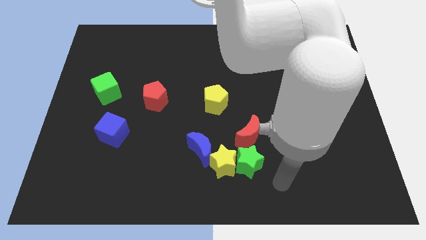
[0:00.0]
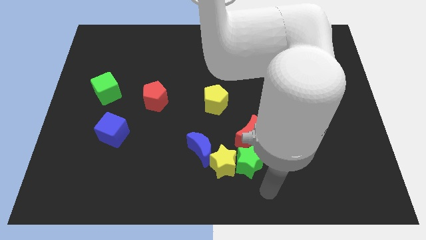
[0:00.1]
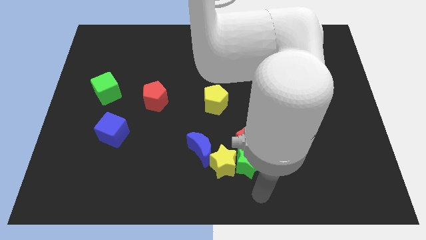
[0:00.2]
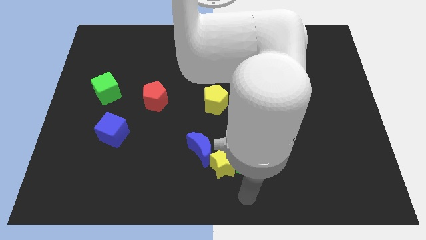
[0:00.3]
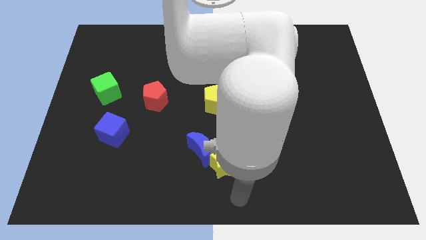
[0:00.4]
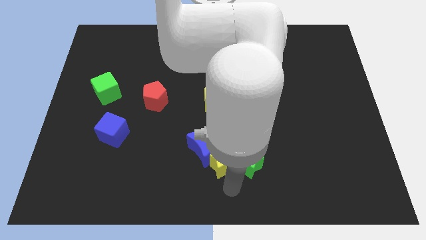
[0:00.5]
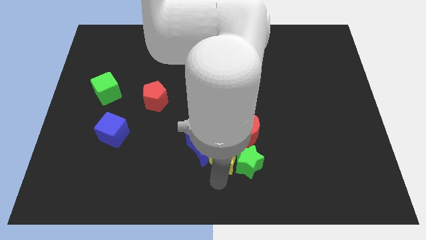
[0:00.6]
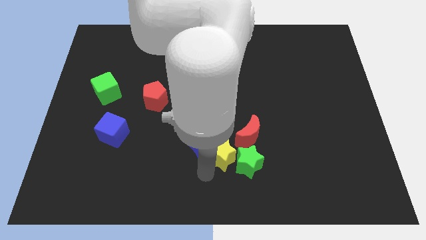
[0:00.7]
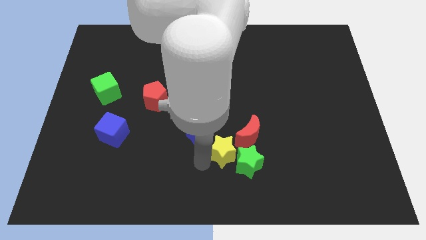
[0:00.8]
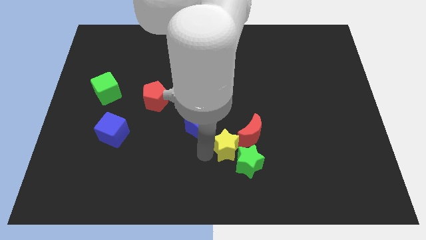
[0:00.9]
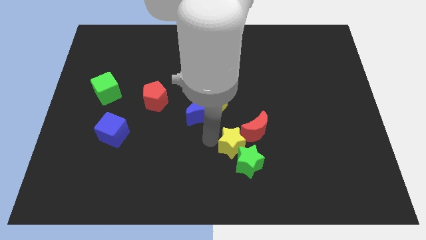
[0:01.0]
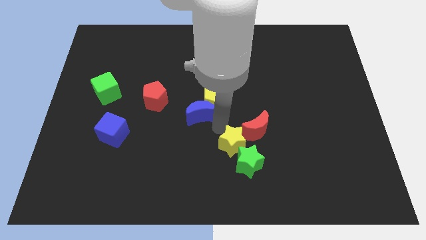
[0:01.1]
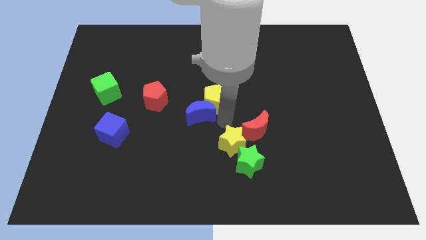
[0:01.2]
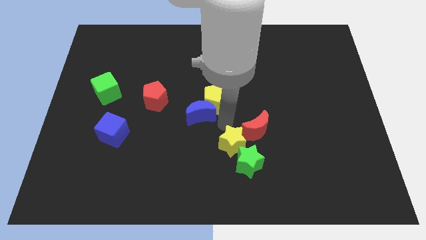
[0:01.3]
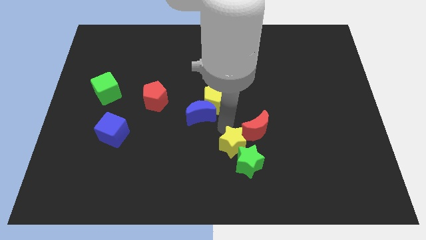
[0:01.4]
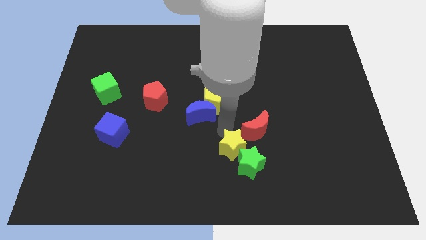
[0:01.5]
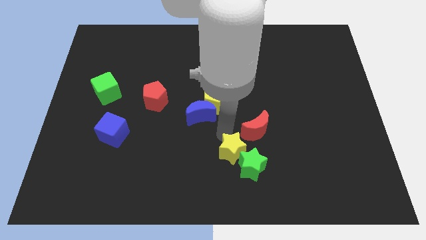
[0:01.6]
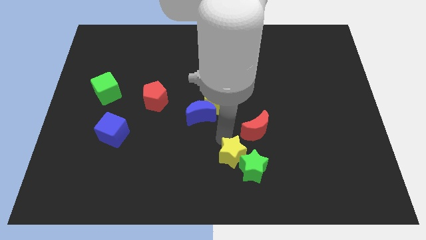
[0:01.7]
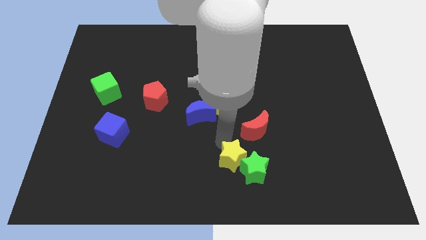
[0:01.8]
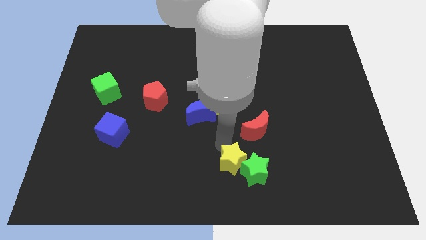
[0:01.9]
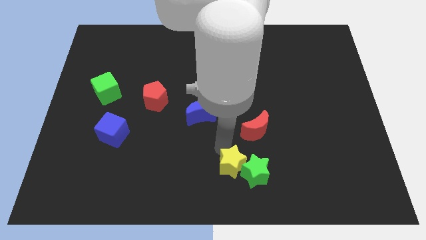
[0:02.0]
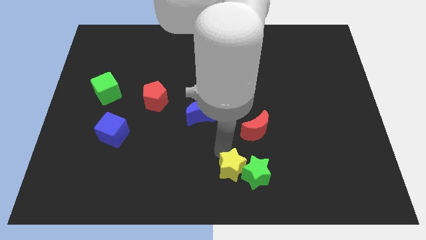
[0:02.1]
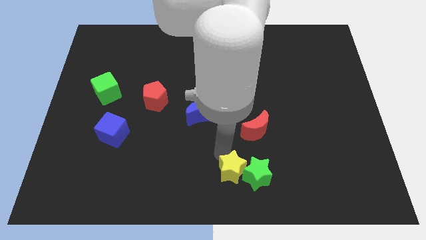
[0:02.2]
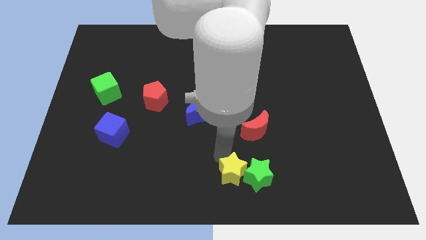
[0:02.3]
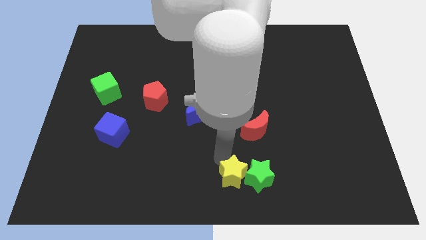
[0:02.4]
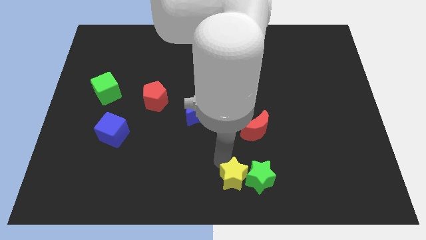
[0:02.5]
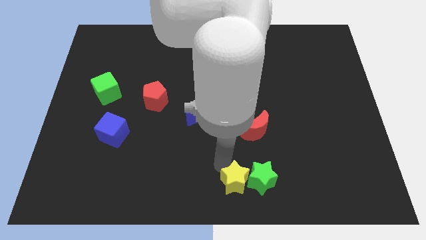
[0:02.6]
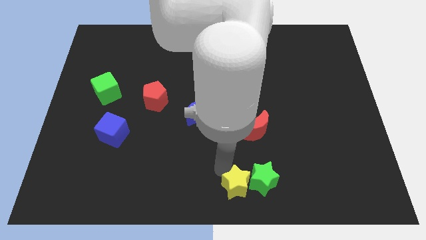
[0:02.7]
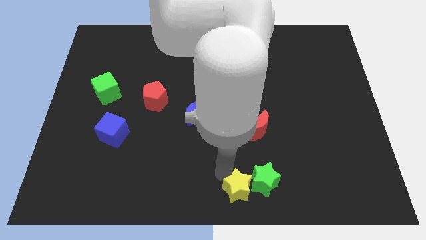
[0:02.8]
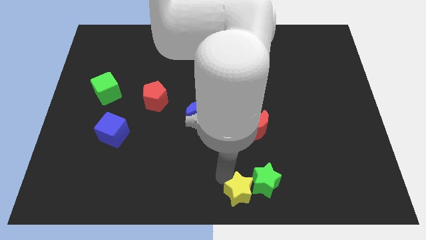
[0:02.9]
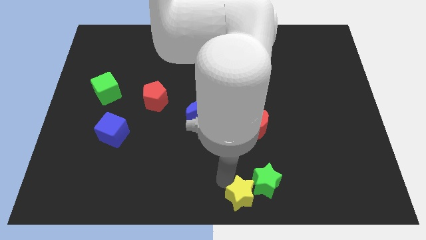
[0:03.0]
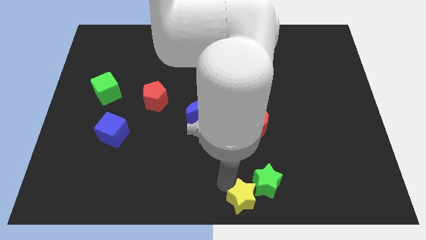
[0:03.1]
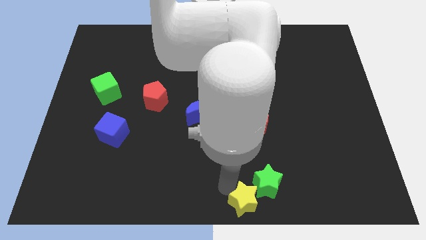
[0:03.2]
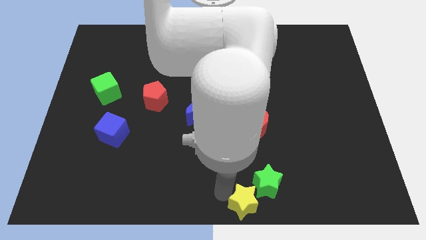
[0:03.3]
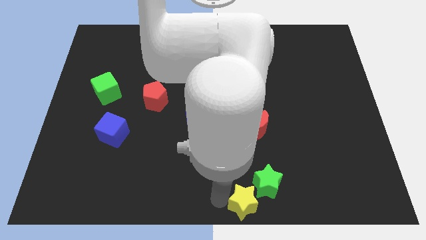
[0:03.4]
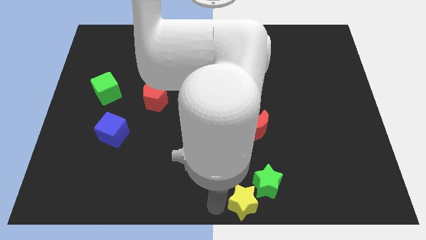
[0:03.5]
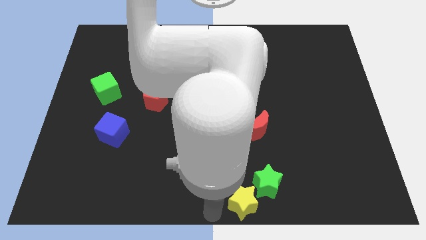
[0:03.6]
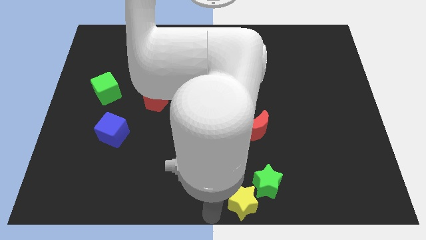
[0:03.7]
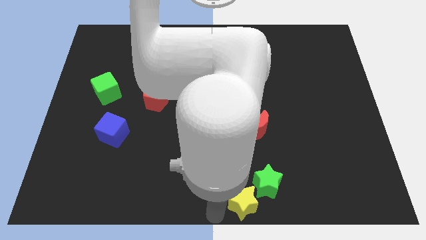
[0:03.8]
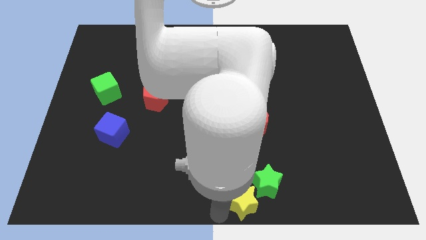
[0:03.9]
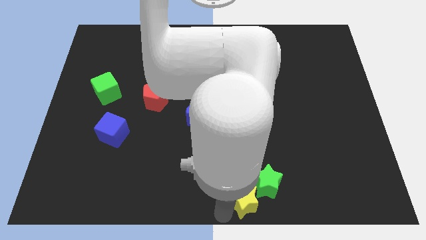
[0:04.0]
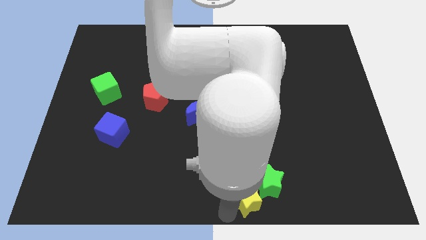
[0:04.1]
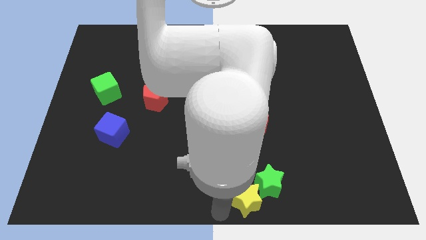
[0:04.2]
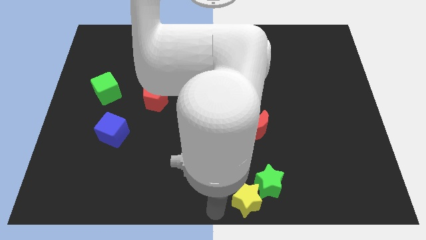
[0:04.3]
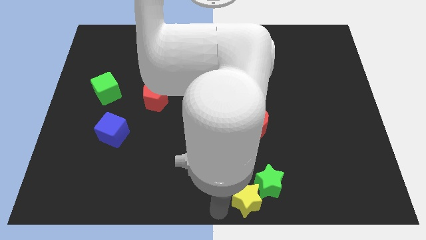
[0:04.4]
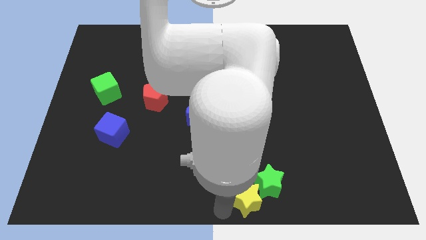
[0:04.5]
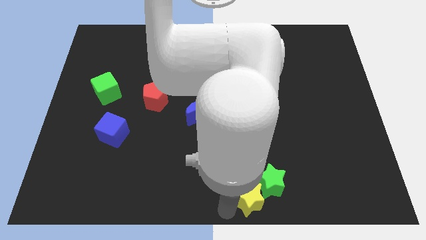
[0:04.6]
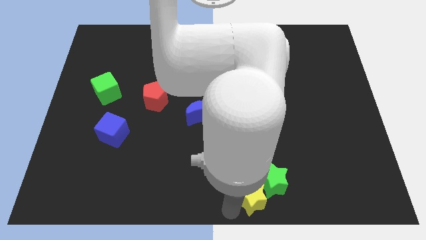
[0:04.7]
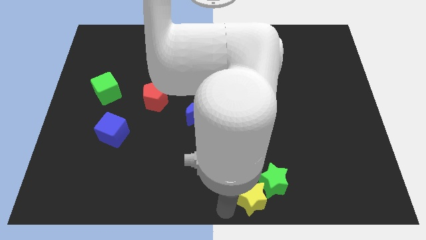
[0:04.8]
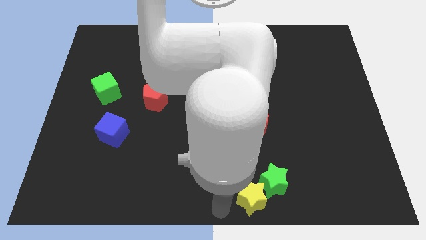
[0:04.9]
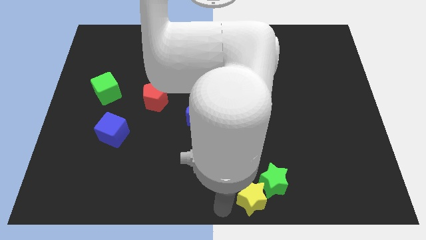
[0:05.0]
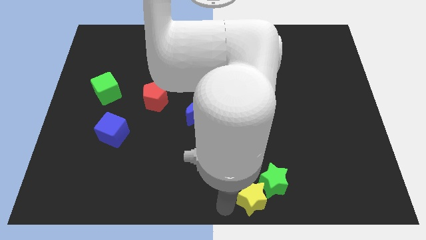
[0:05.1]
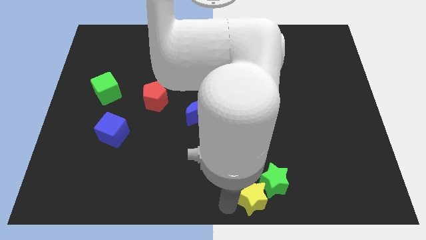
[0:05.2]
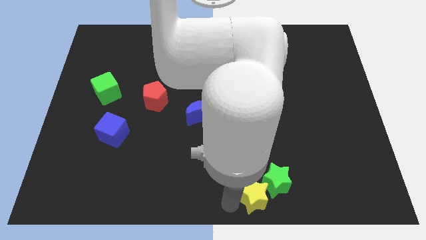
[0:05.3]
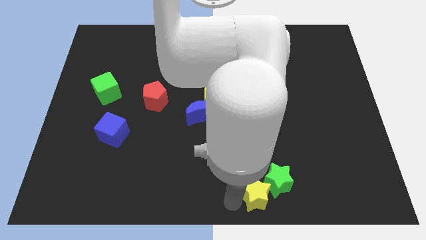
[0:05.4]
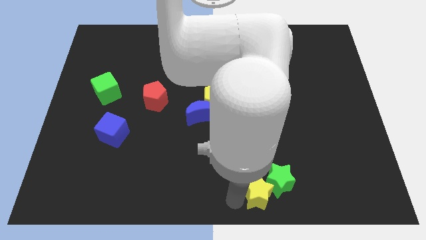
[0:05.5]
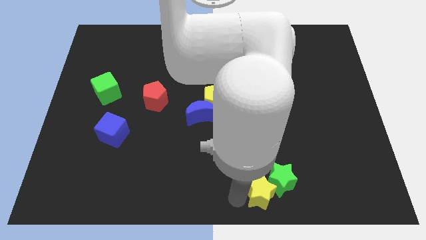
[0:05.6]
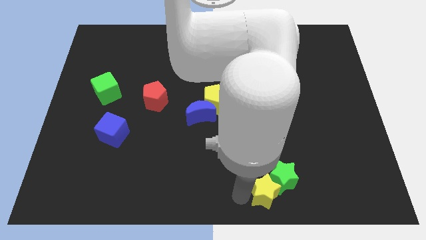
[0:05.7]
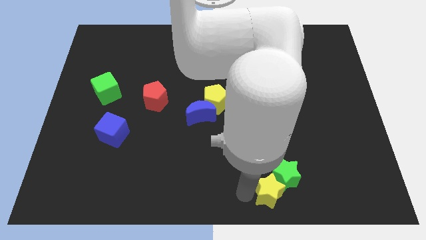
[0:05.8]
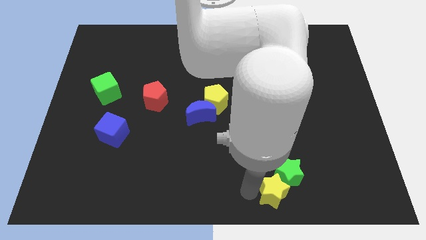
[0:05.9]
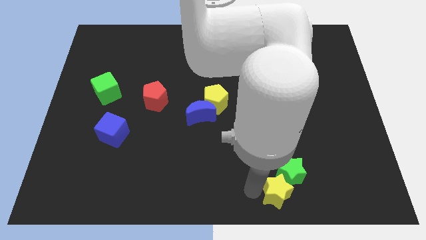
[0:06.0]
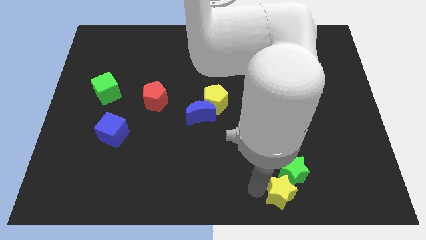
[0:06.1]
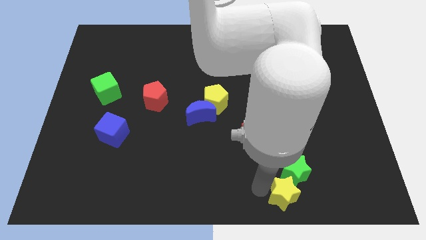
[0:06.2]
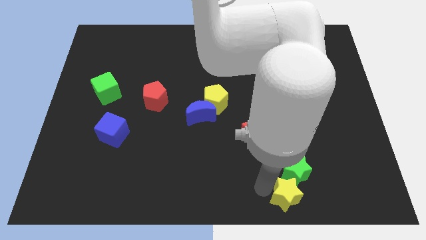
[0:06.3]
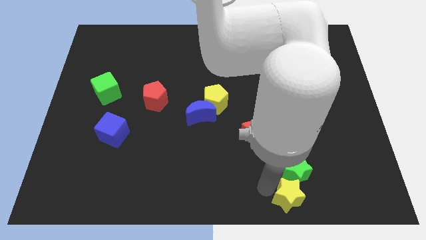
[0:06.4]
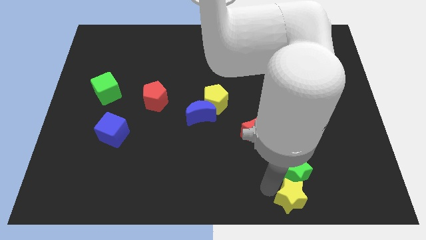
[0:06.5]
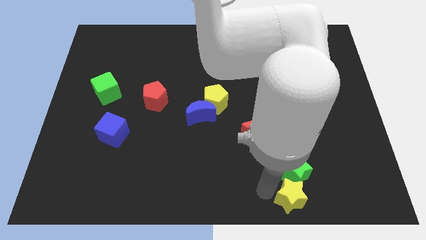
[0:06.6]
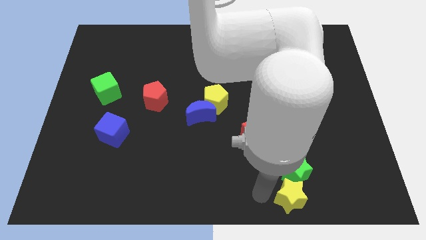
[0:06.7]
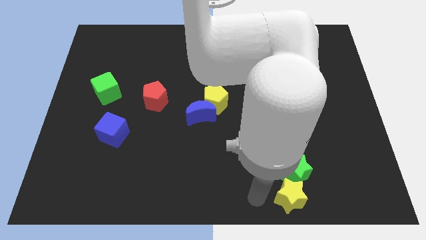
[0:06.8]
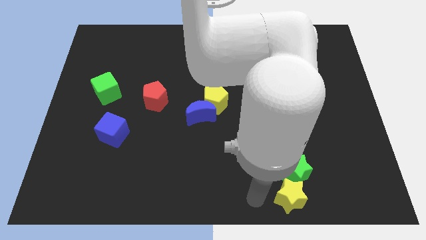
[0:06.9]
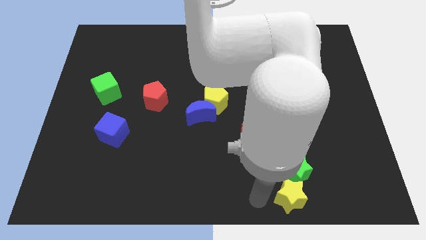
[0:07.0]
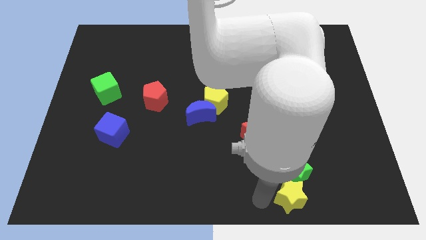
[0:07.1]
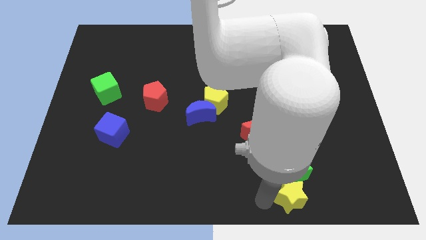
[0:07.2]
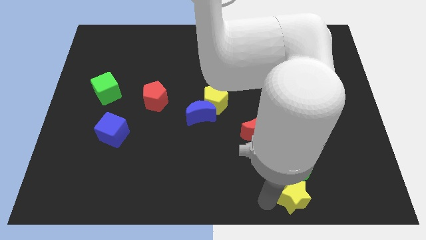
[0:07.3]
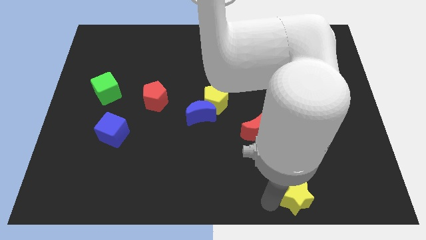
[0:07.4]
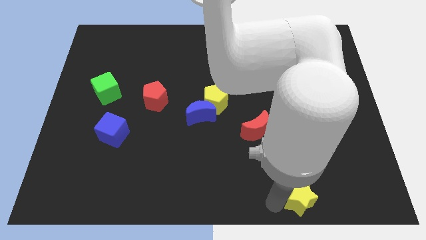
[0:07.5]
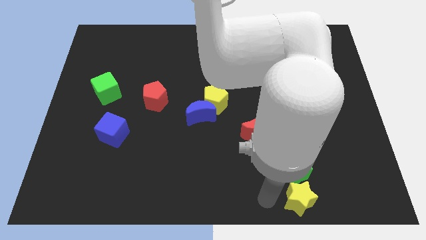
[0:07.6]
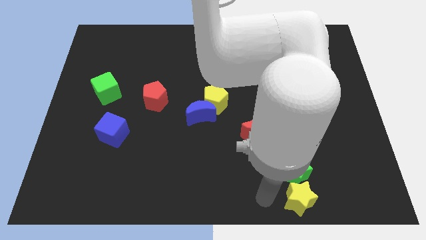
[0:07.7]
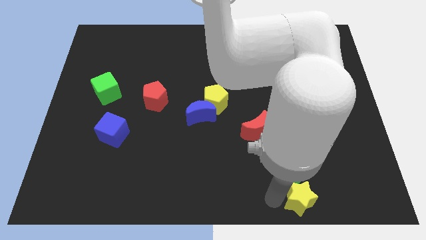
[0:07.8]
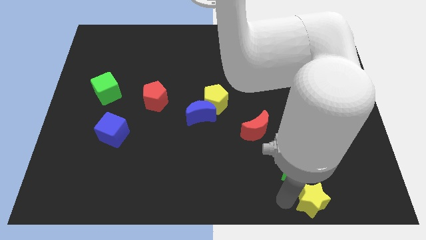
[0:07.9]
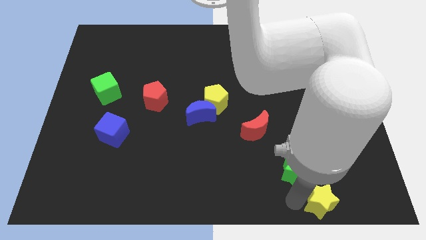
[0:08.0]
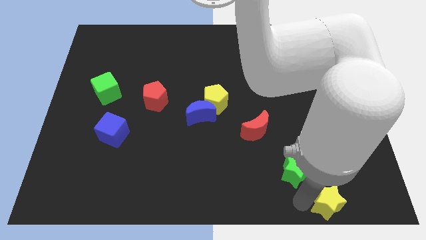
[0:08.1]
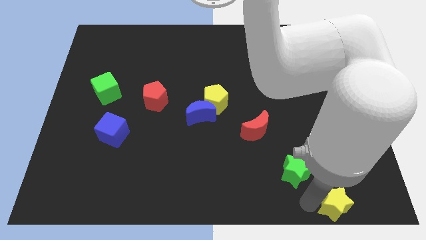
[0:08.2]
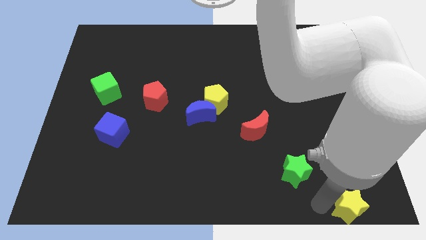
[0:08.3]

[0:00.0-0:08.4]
slide the yellow star to the bottom right corner
